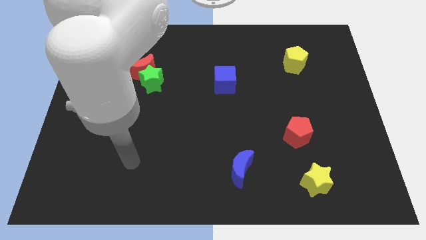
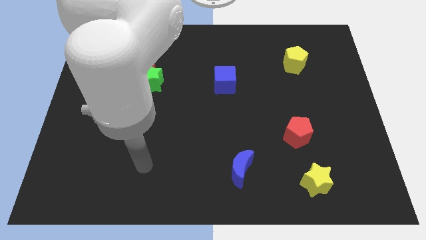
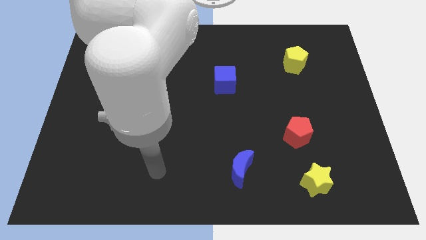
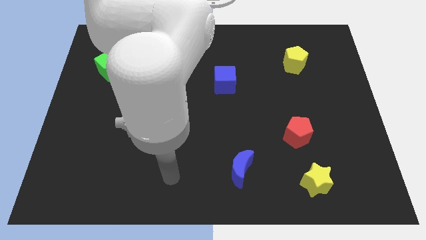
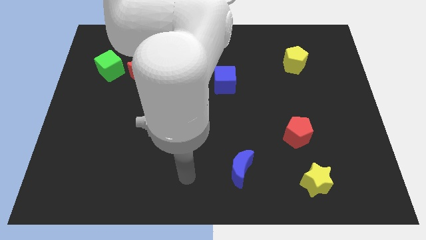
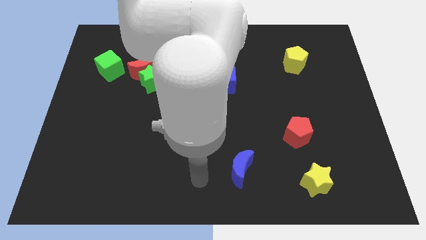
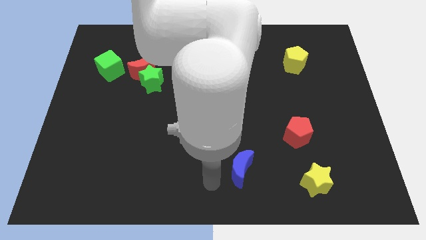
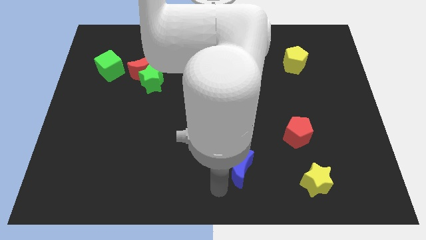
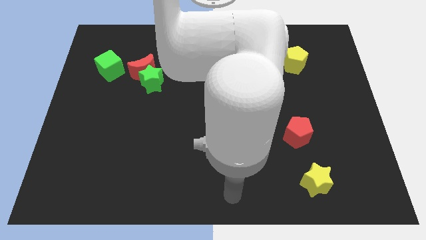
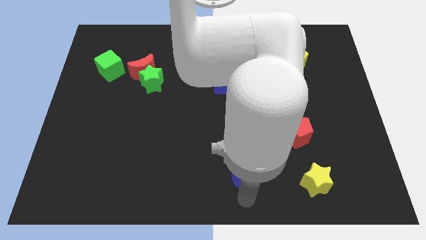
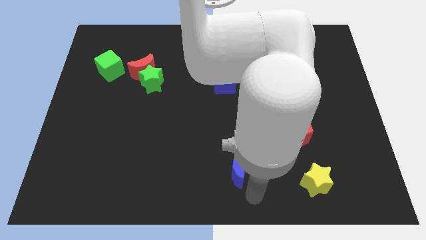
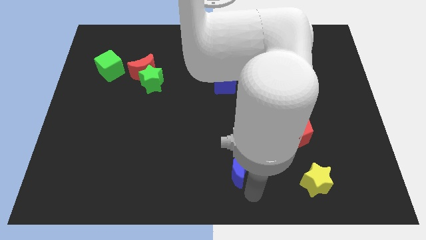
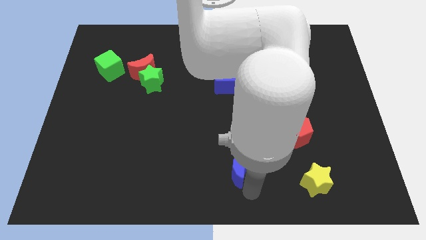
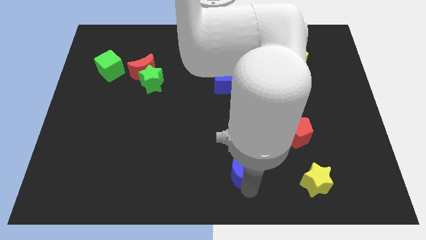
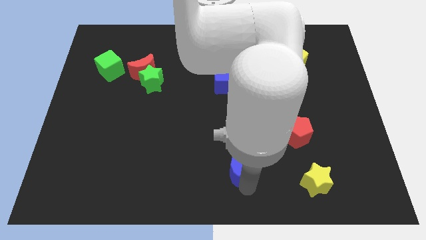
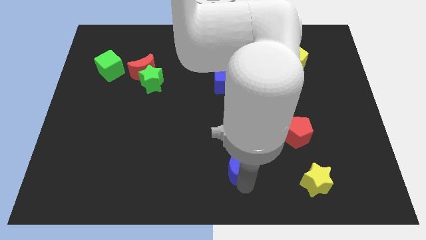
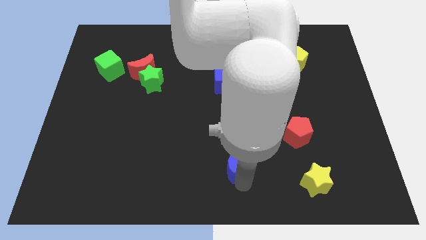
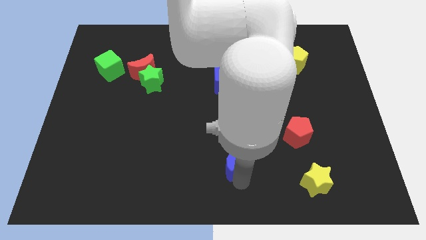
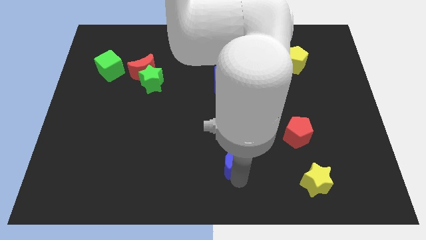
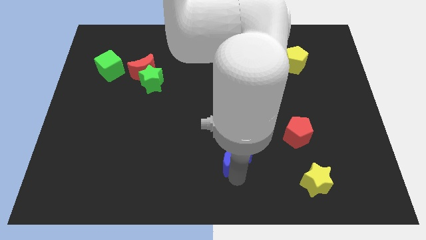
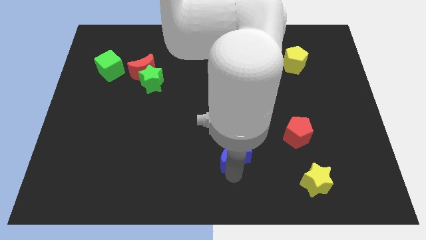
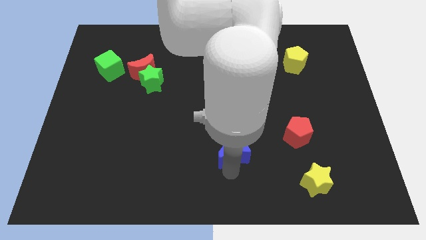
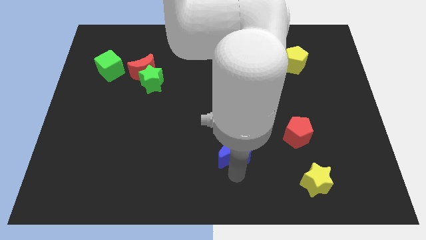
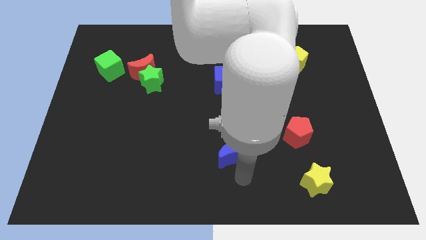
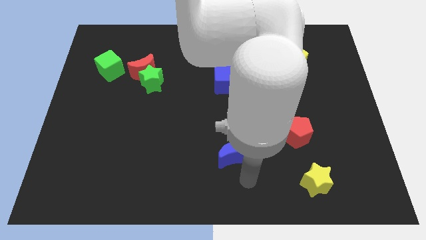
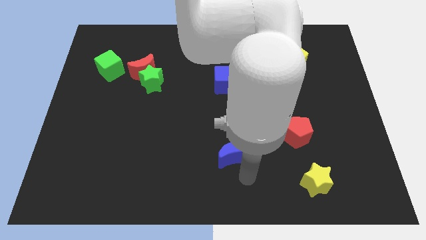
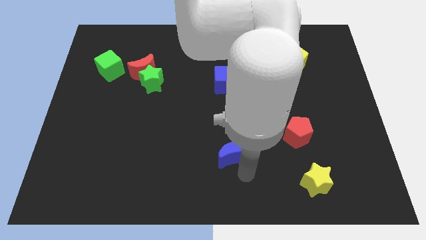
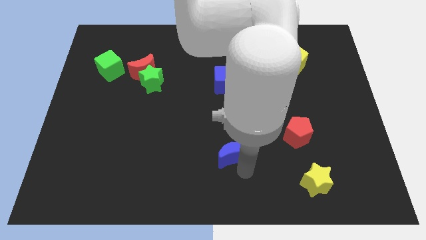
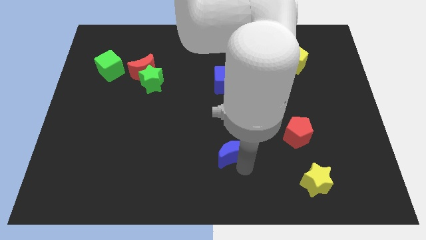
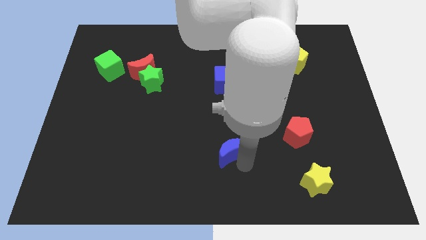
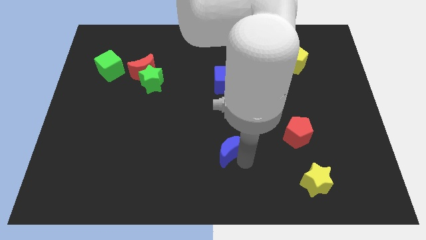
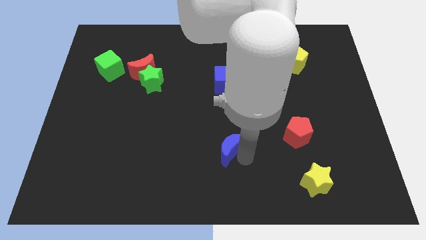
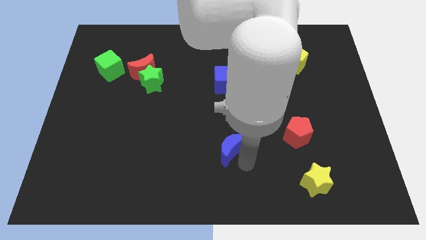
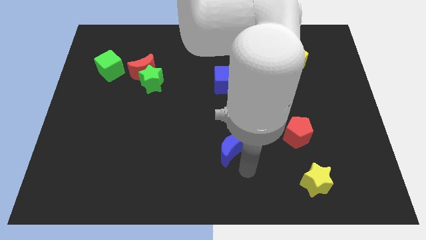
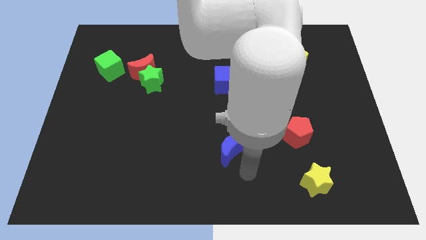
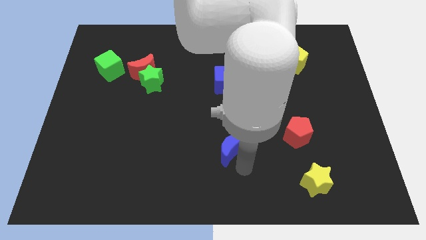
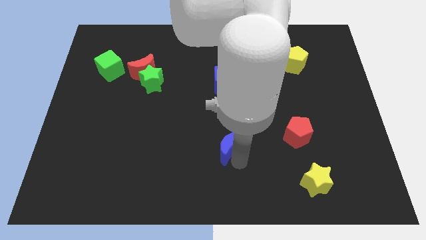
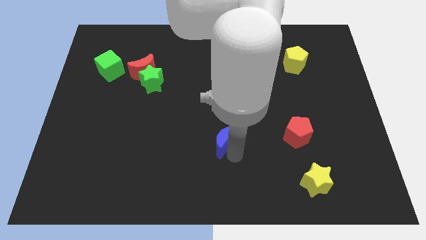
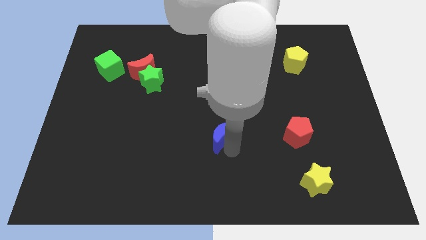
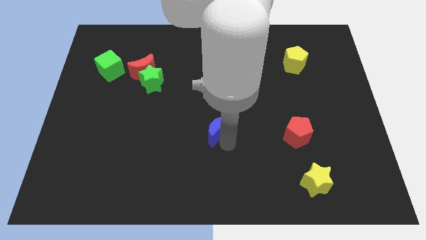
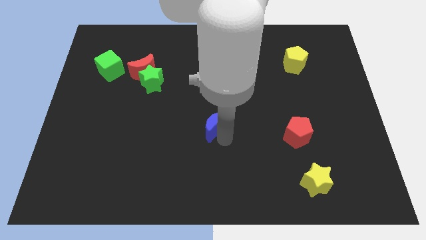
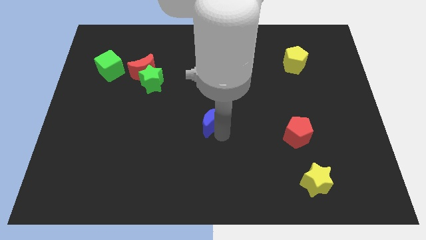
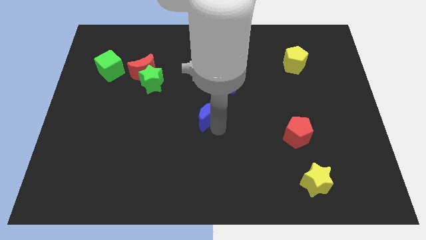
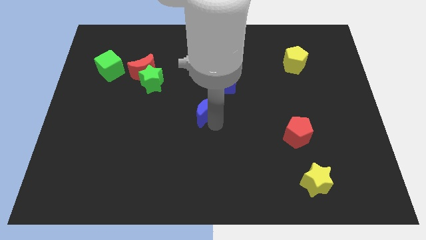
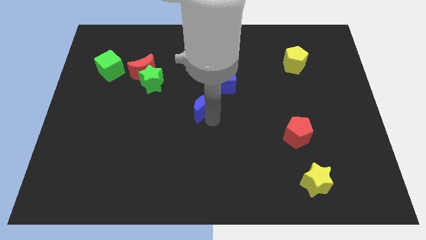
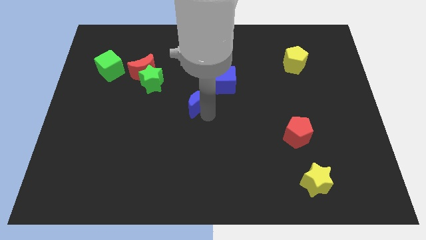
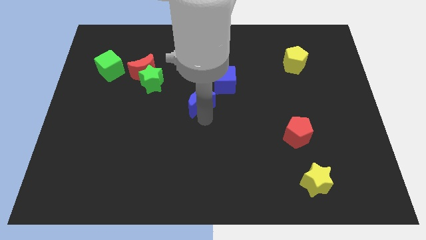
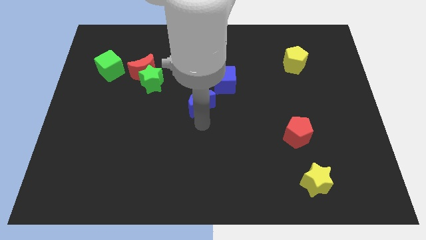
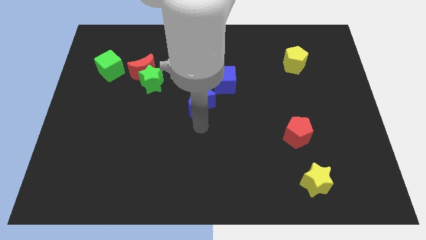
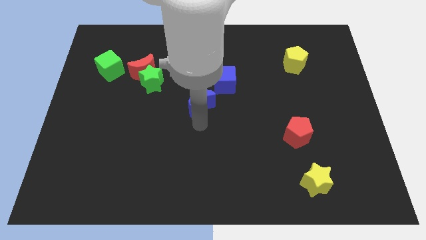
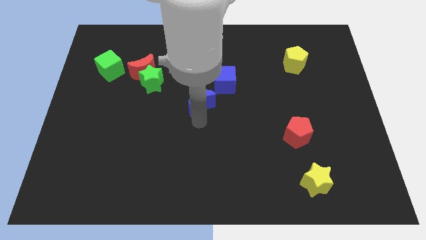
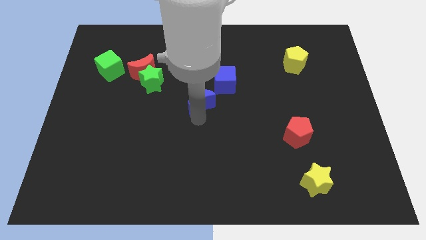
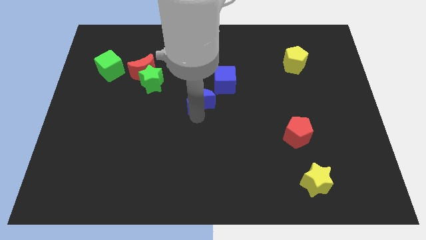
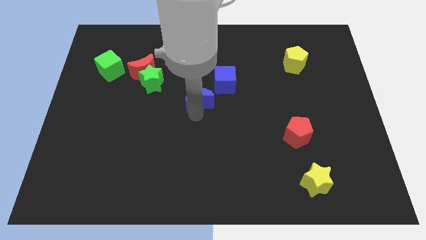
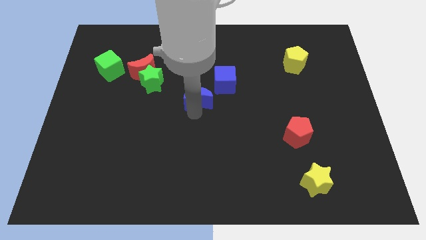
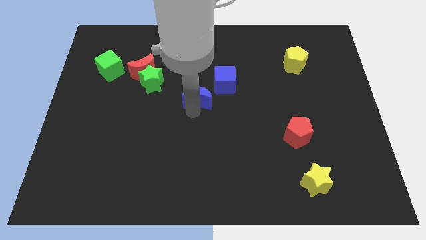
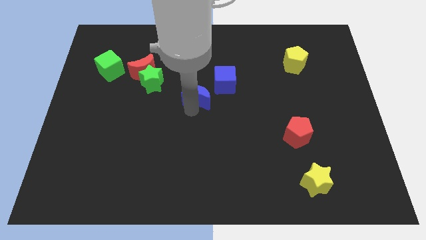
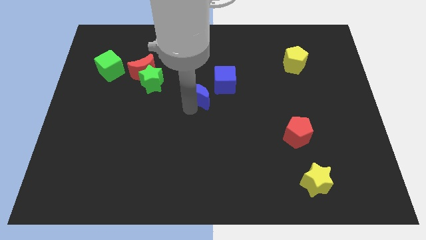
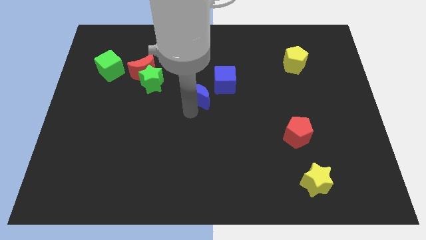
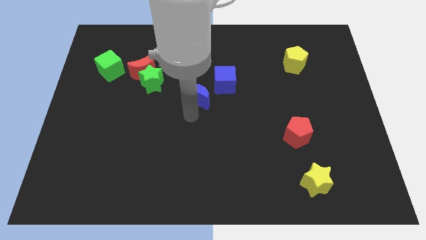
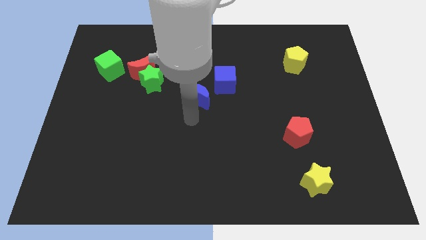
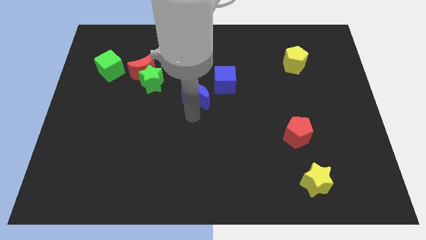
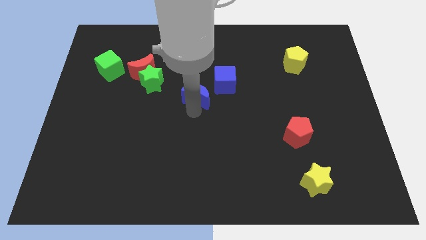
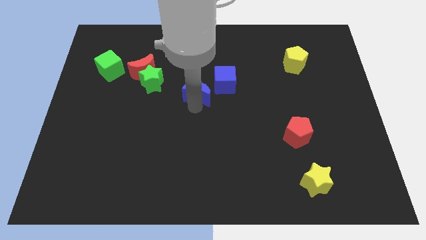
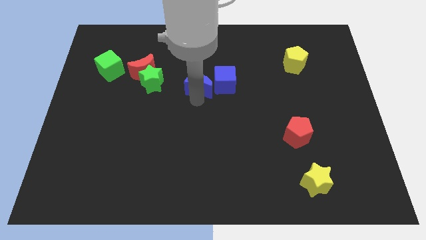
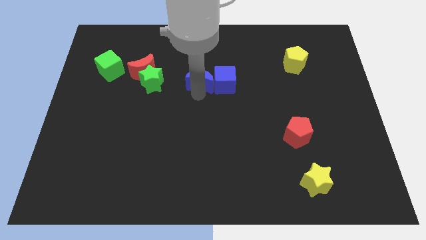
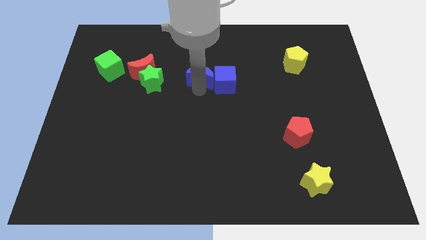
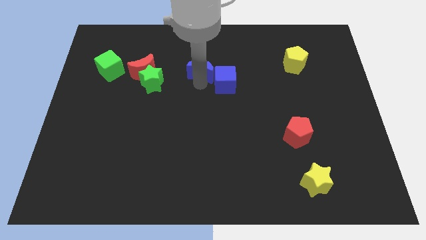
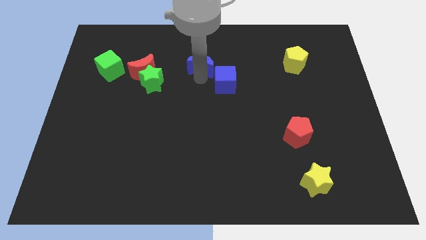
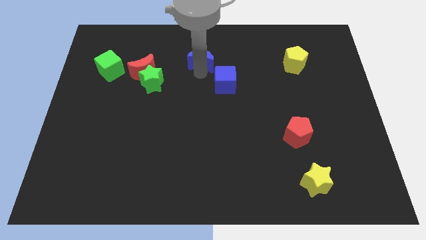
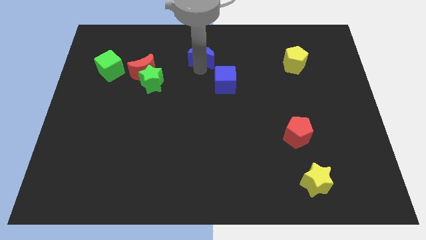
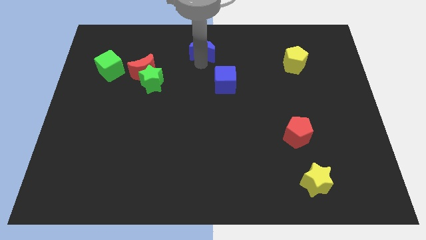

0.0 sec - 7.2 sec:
slide the blue moon to the top

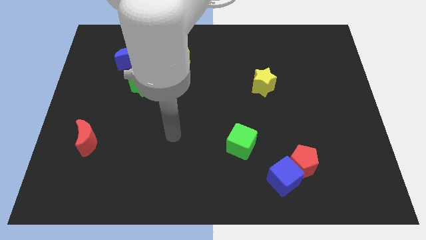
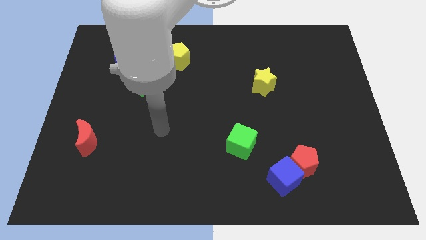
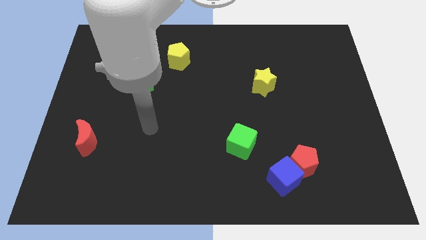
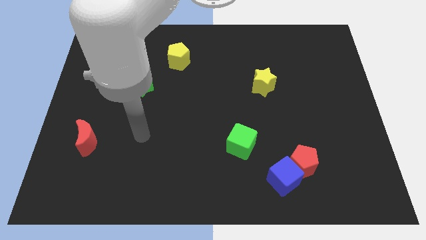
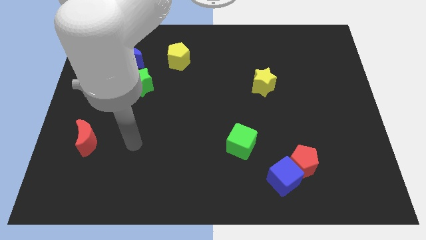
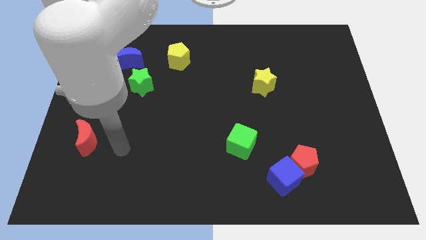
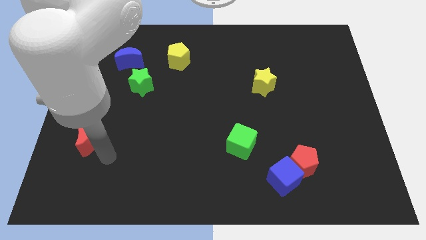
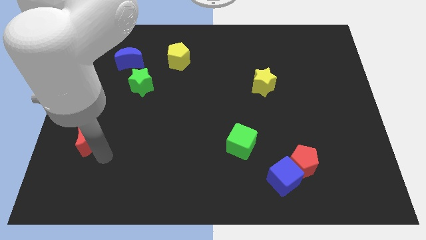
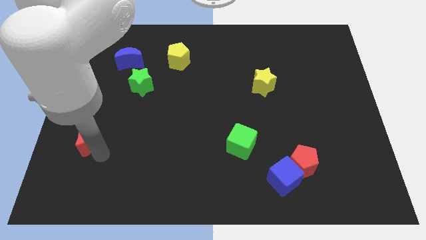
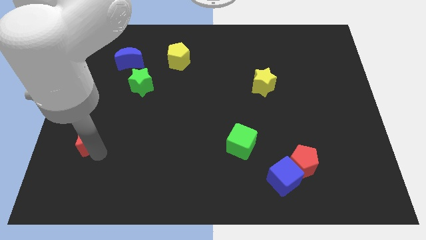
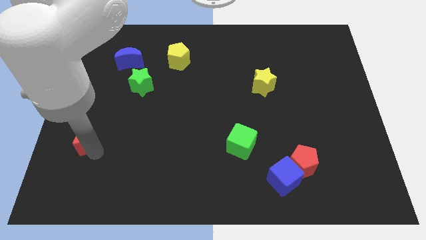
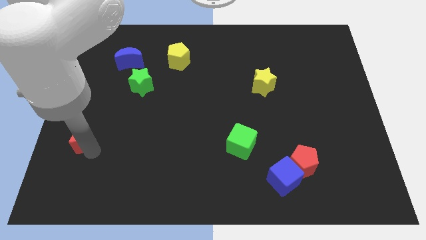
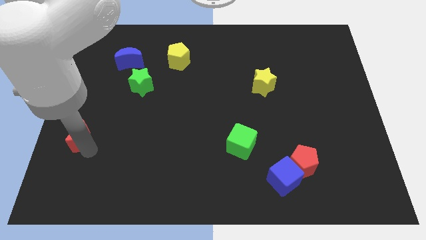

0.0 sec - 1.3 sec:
put the red moon to the left side
